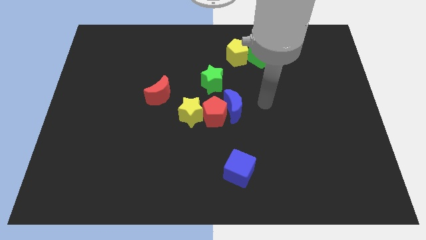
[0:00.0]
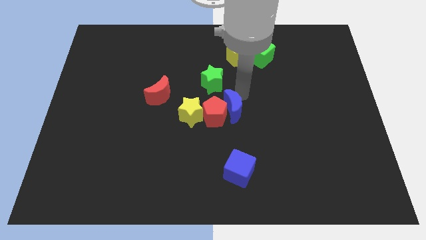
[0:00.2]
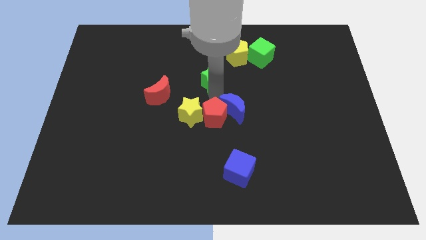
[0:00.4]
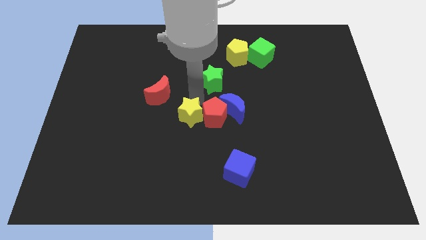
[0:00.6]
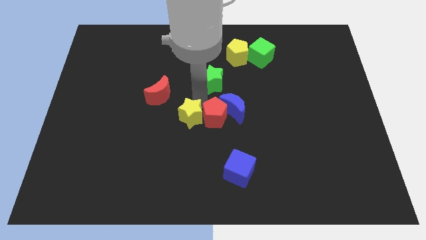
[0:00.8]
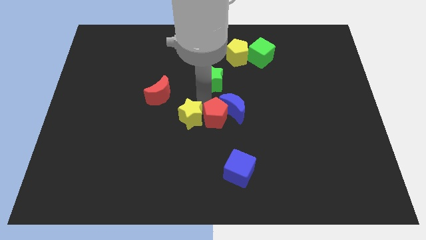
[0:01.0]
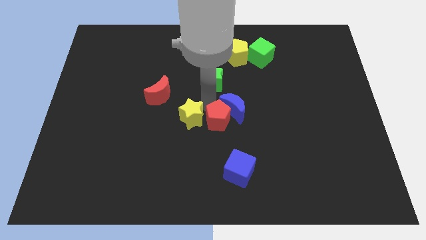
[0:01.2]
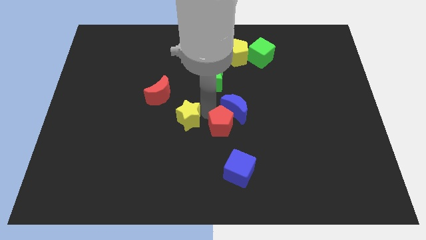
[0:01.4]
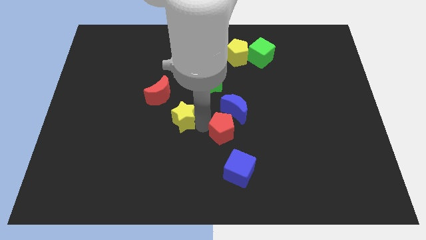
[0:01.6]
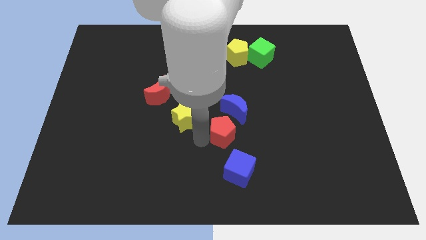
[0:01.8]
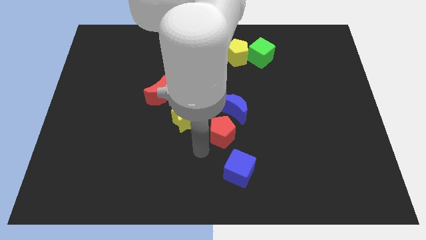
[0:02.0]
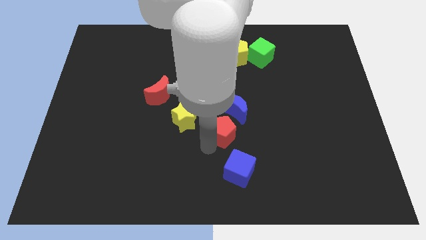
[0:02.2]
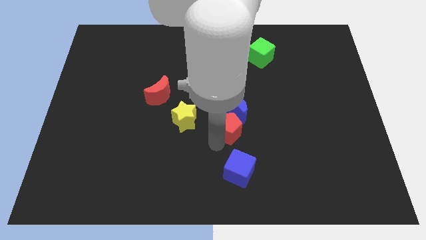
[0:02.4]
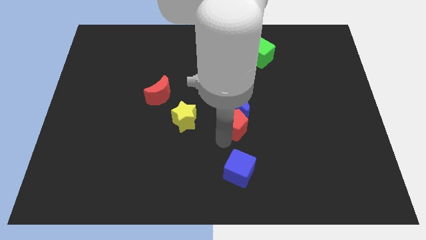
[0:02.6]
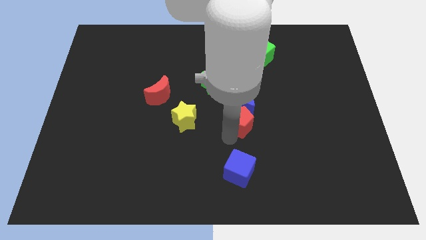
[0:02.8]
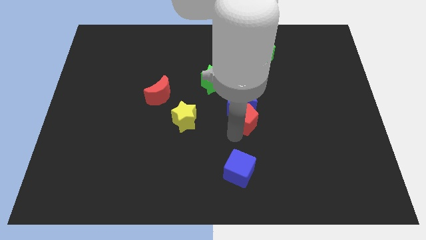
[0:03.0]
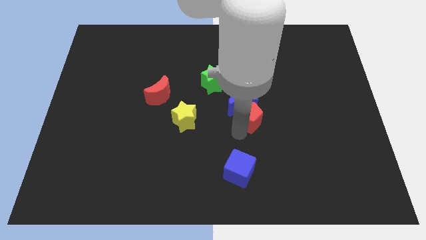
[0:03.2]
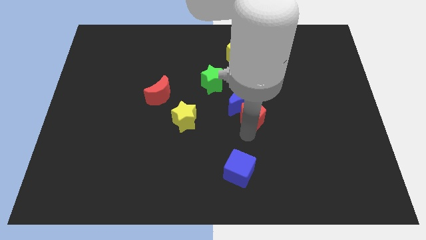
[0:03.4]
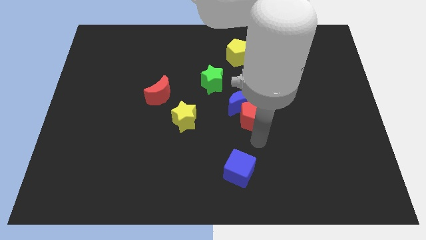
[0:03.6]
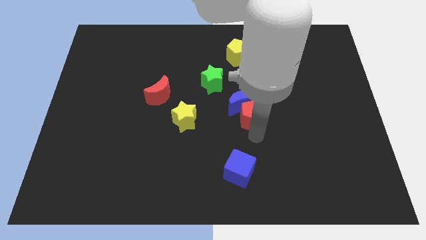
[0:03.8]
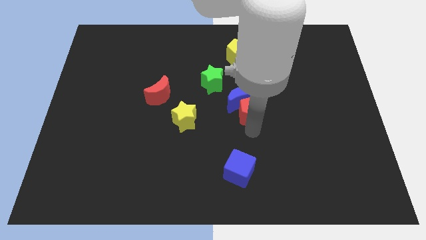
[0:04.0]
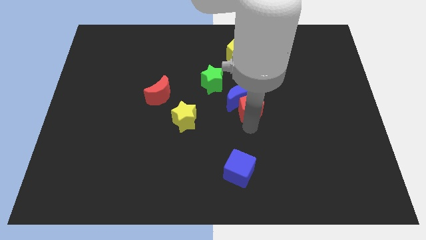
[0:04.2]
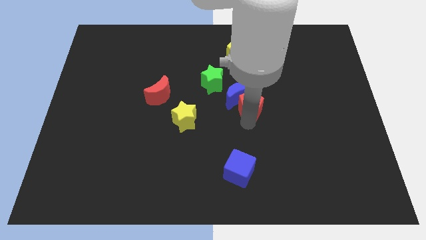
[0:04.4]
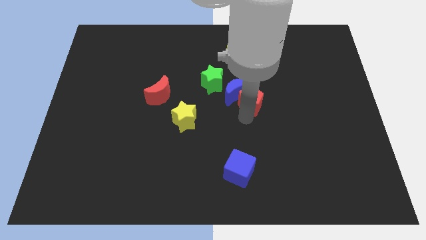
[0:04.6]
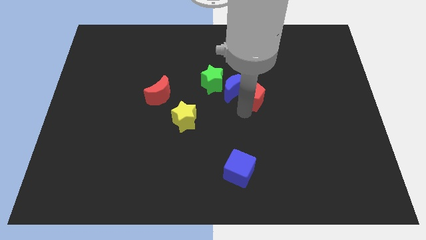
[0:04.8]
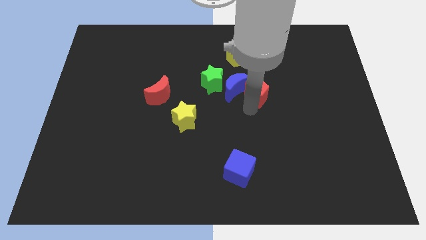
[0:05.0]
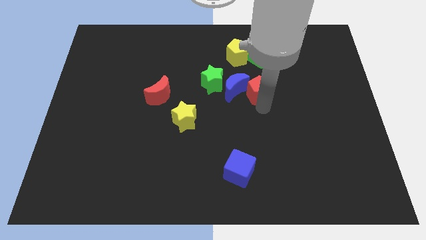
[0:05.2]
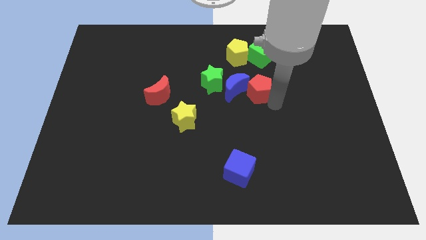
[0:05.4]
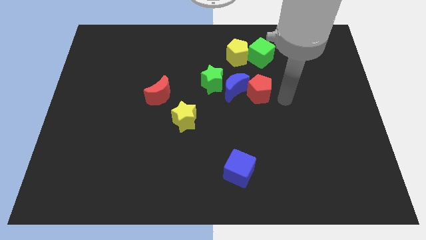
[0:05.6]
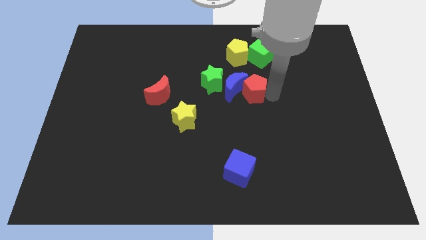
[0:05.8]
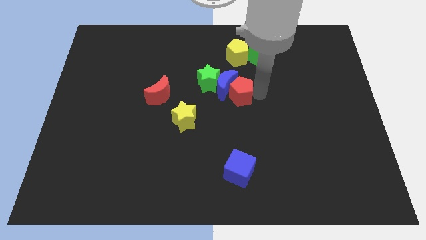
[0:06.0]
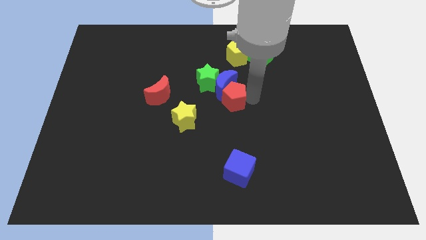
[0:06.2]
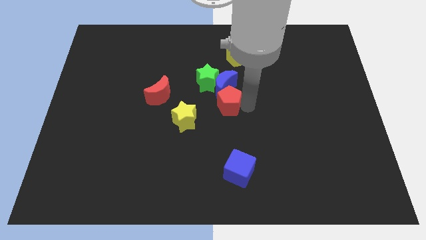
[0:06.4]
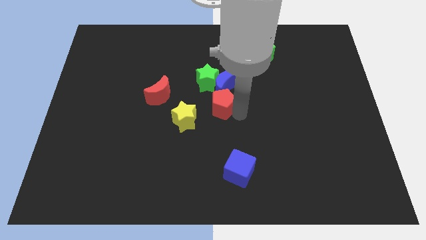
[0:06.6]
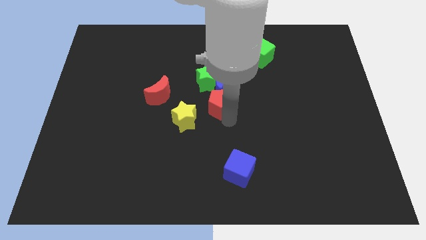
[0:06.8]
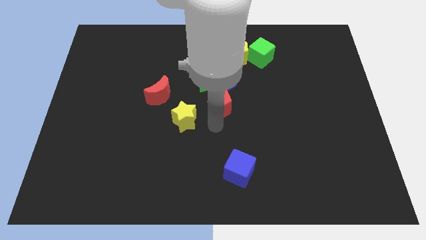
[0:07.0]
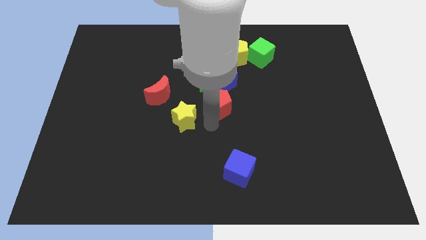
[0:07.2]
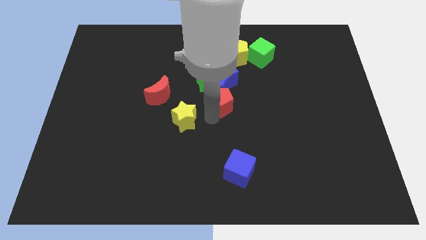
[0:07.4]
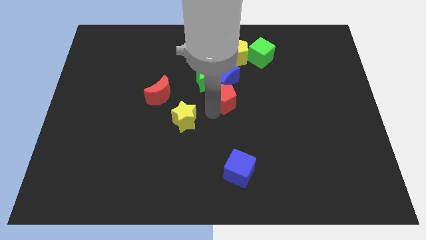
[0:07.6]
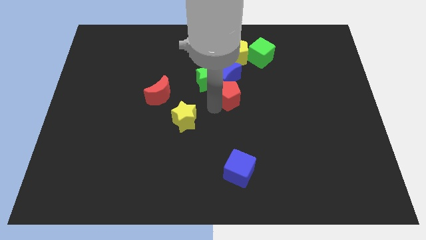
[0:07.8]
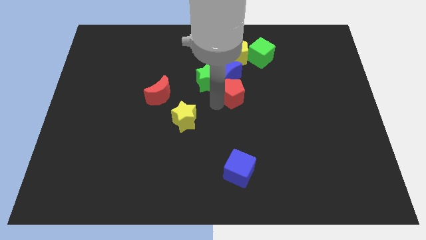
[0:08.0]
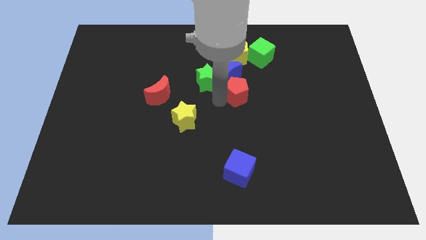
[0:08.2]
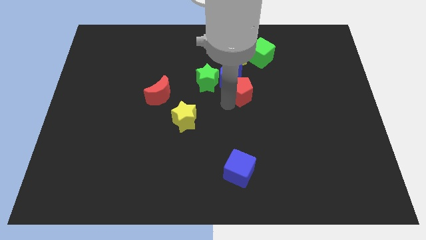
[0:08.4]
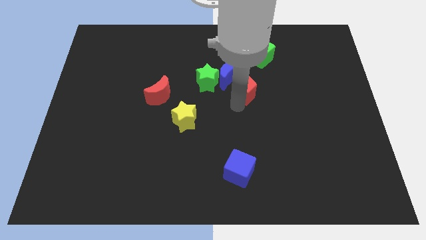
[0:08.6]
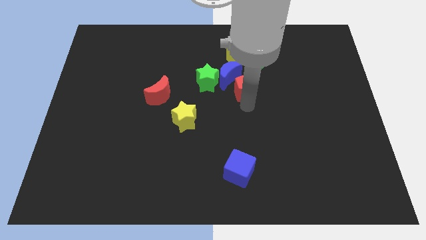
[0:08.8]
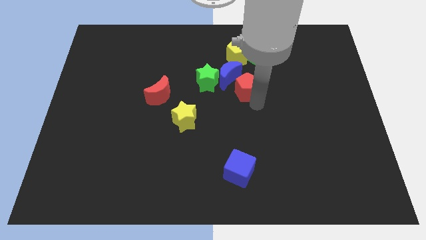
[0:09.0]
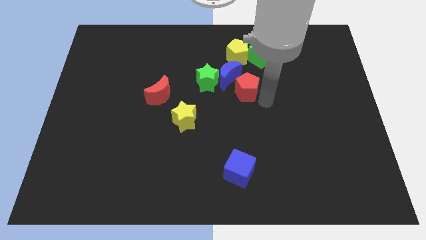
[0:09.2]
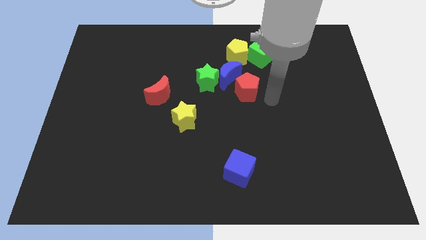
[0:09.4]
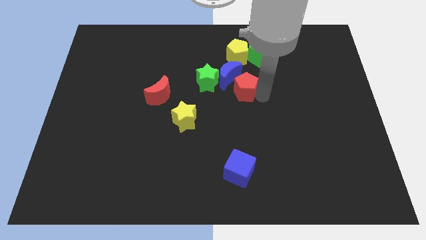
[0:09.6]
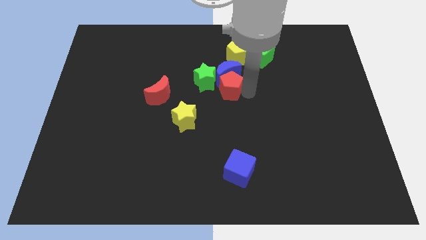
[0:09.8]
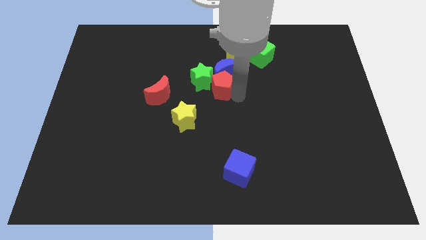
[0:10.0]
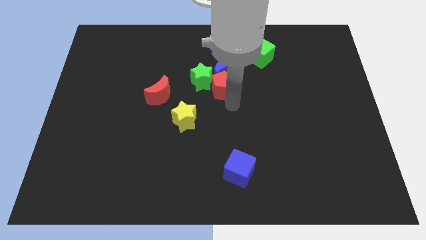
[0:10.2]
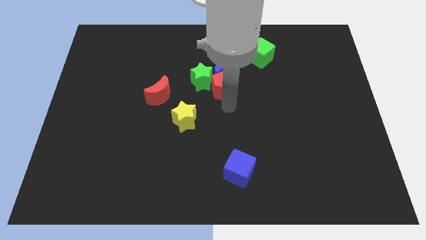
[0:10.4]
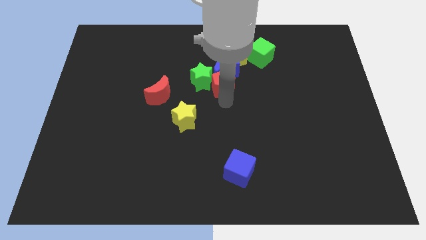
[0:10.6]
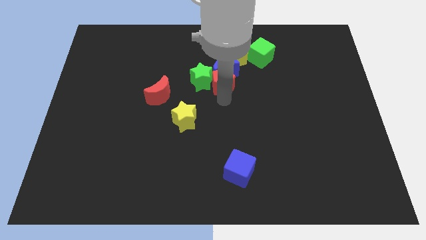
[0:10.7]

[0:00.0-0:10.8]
move the red pentagon diagonally down and to the left of the yellow pentagon

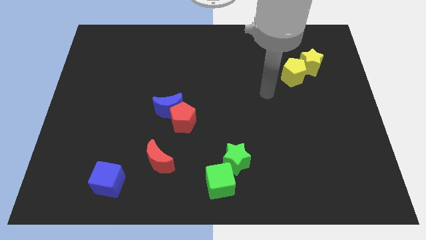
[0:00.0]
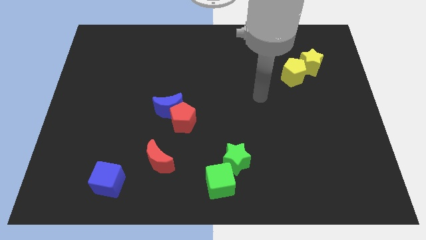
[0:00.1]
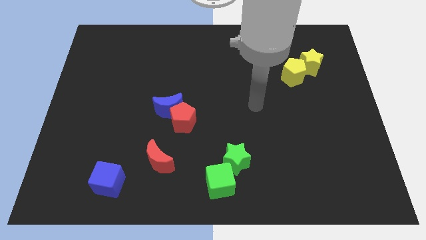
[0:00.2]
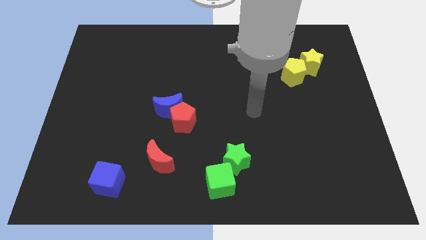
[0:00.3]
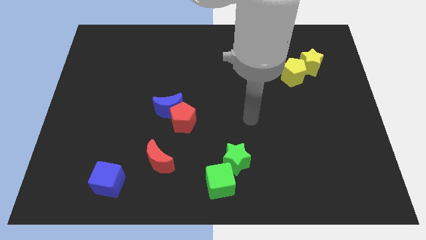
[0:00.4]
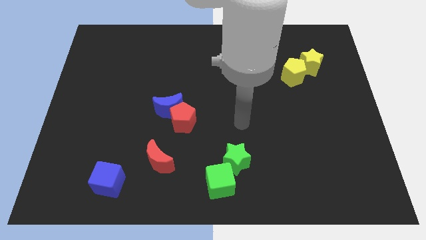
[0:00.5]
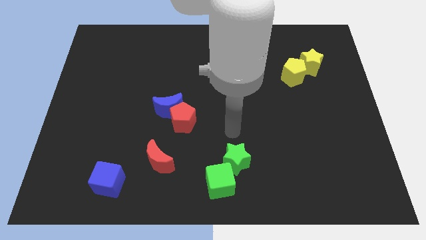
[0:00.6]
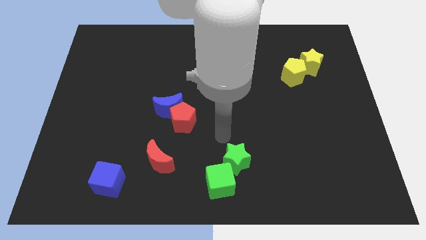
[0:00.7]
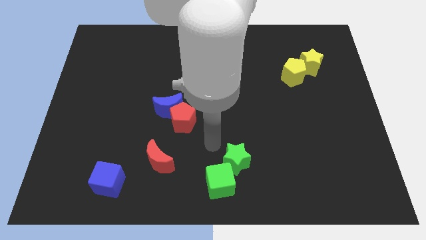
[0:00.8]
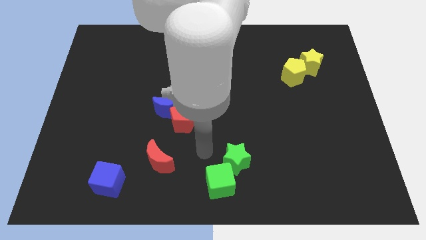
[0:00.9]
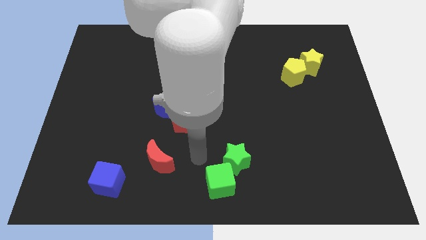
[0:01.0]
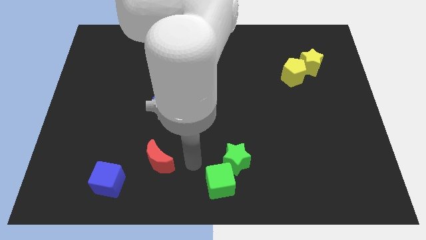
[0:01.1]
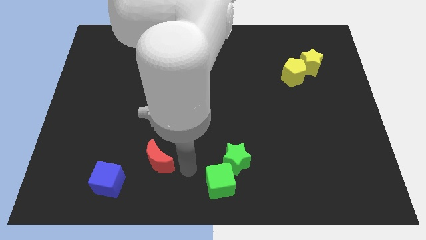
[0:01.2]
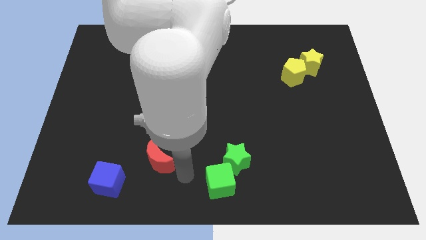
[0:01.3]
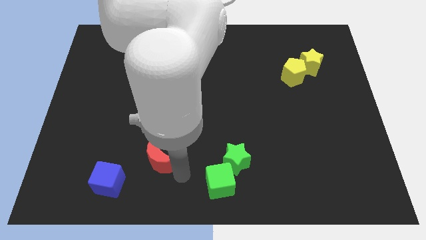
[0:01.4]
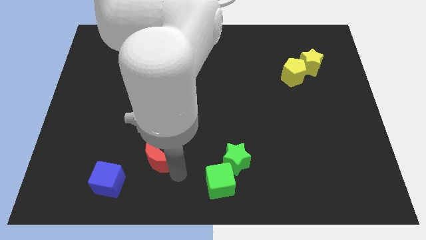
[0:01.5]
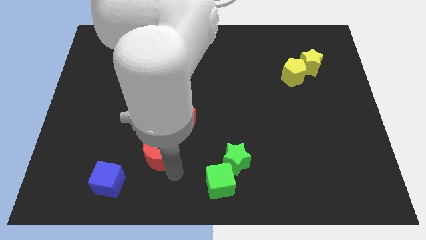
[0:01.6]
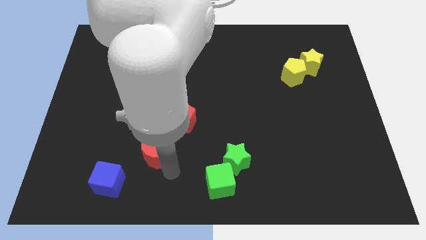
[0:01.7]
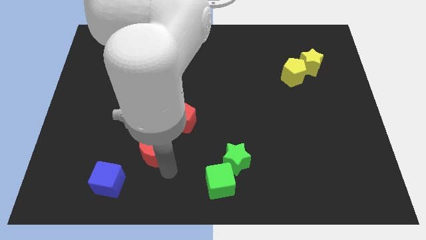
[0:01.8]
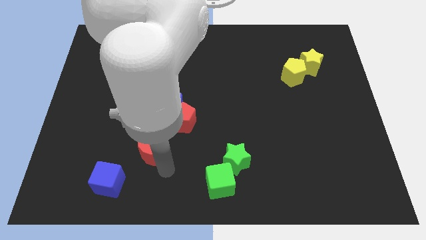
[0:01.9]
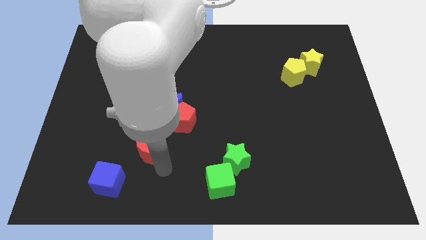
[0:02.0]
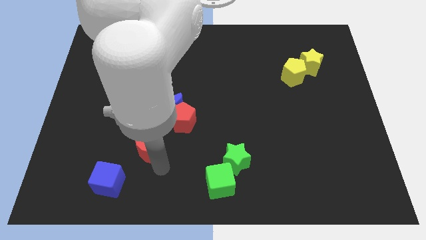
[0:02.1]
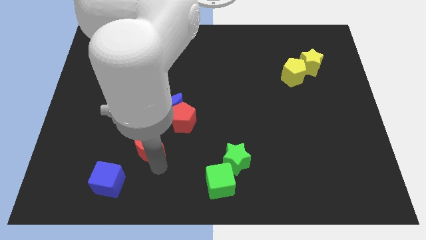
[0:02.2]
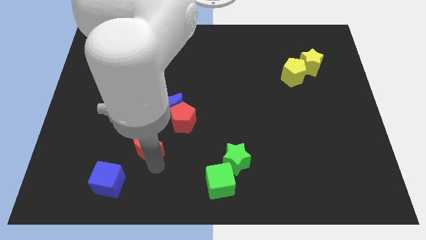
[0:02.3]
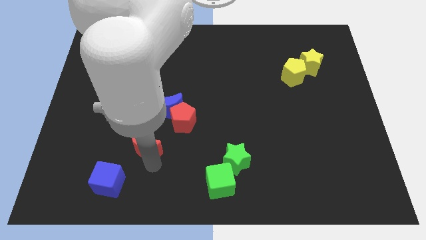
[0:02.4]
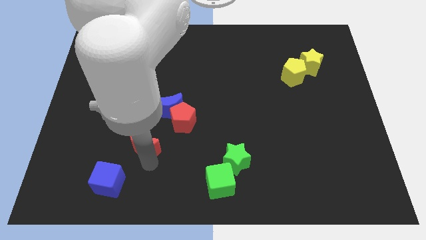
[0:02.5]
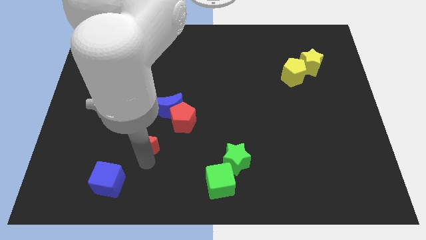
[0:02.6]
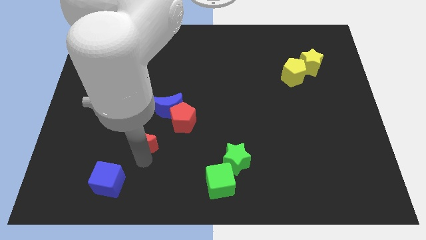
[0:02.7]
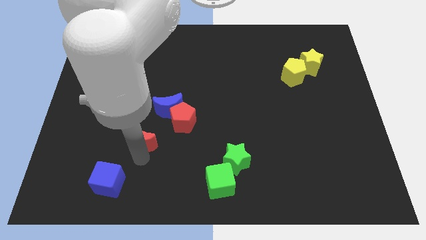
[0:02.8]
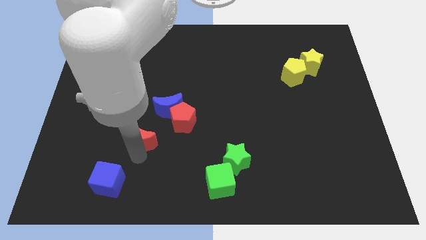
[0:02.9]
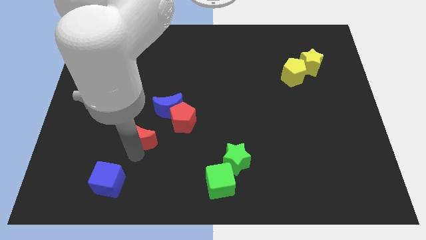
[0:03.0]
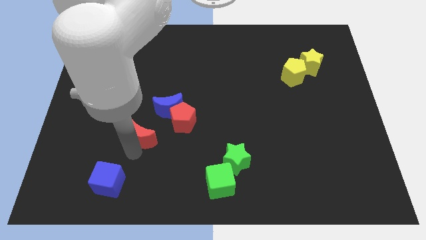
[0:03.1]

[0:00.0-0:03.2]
move the red moon to the top of the blue cube
